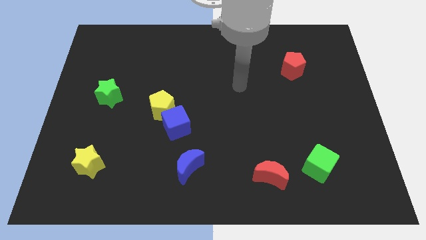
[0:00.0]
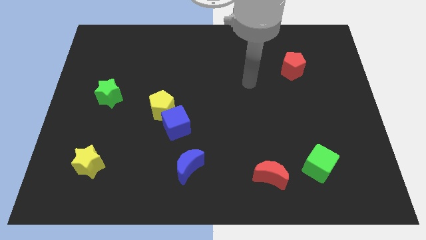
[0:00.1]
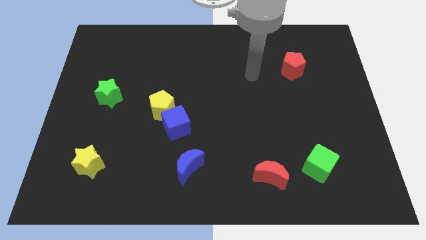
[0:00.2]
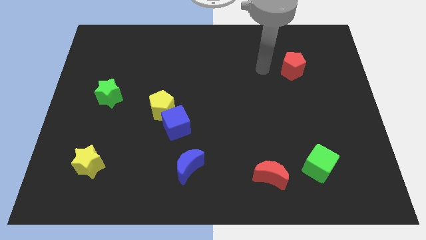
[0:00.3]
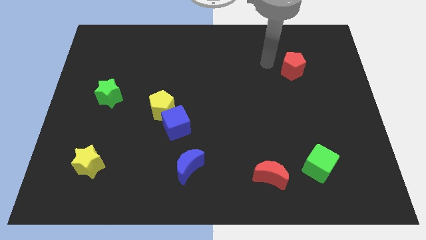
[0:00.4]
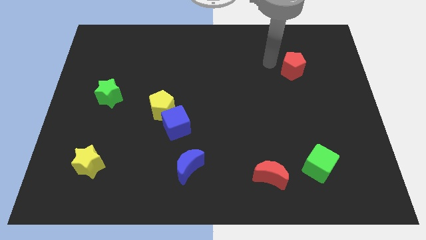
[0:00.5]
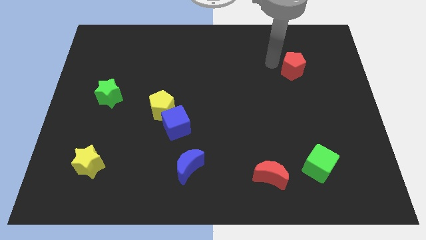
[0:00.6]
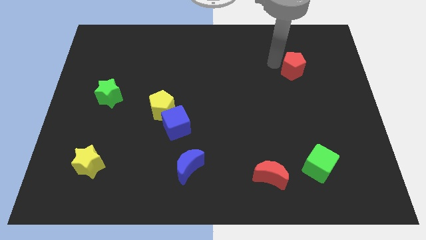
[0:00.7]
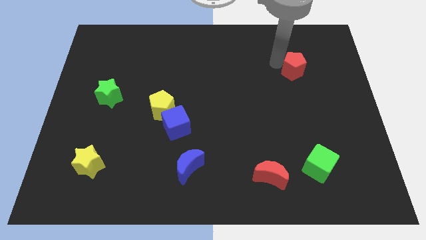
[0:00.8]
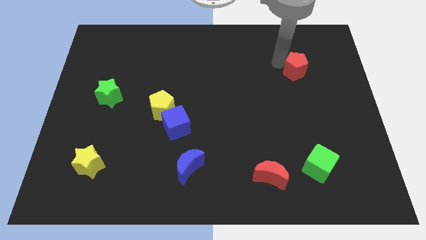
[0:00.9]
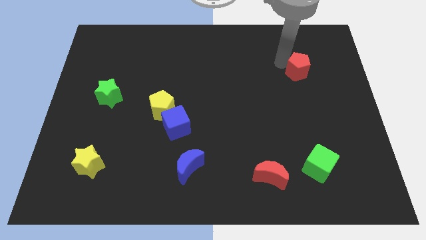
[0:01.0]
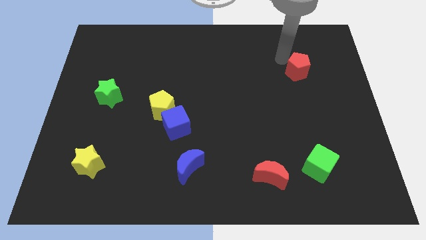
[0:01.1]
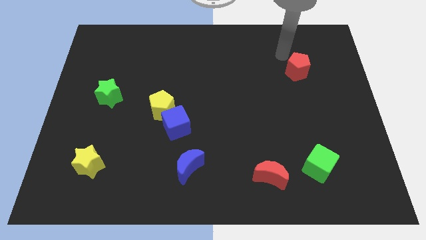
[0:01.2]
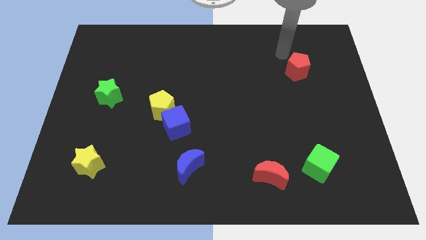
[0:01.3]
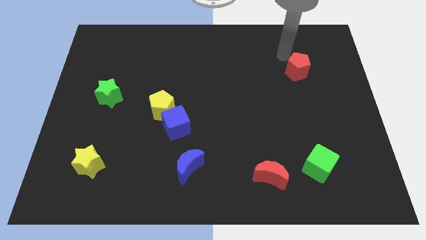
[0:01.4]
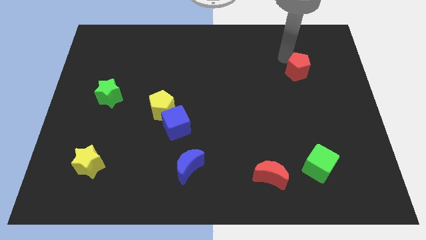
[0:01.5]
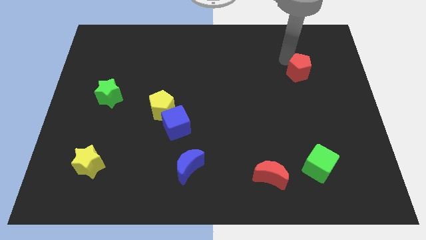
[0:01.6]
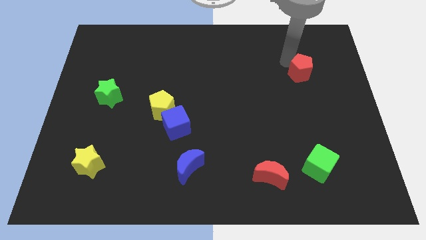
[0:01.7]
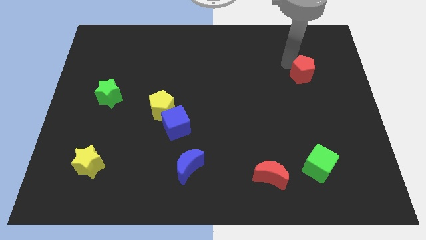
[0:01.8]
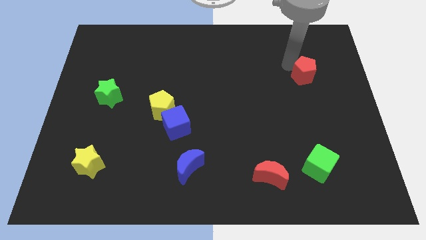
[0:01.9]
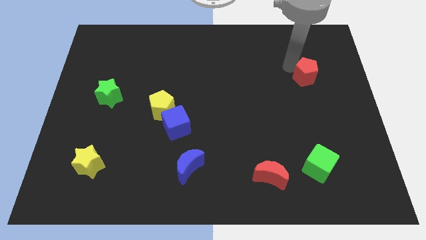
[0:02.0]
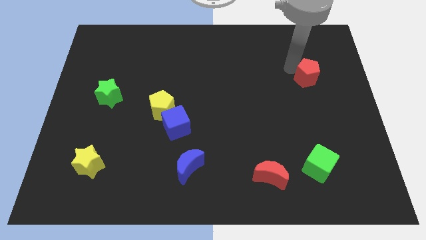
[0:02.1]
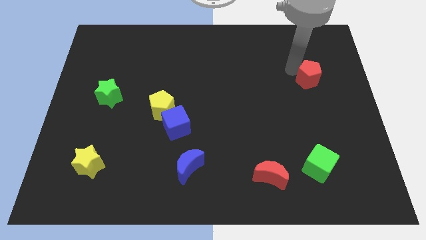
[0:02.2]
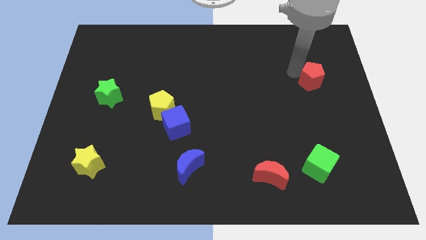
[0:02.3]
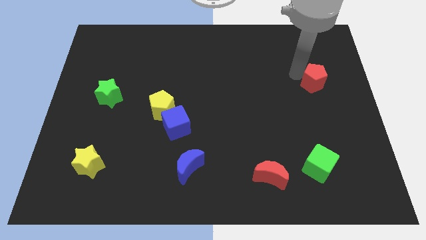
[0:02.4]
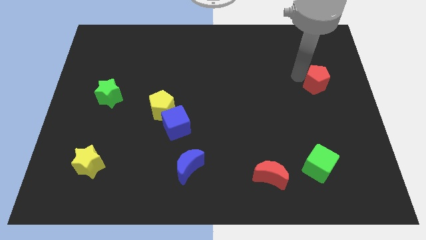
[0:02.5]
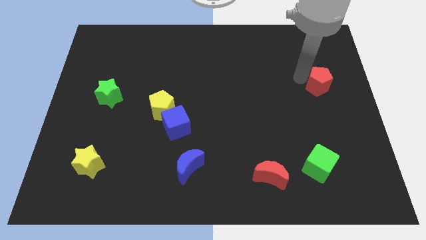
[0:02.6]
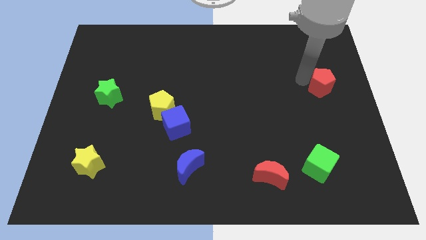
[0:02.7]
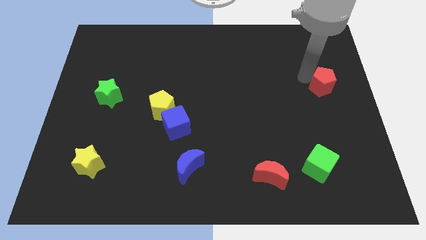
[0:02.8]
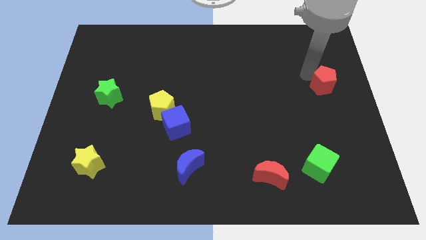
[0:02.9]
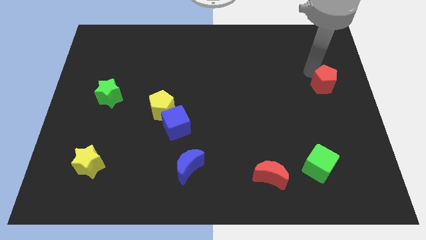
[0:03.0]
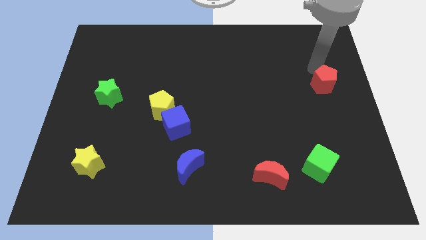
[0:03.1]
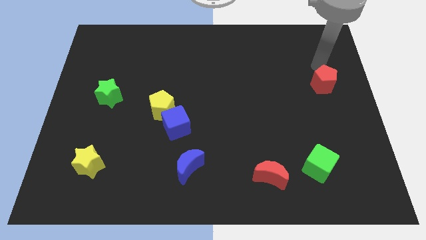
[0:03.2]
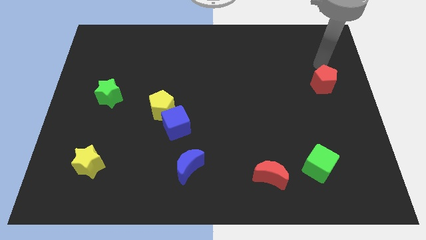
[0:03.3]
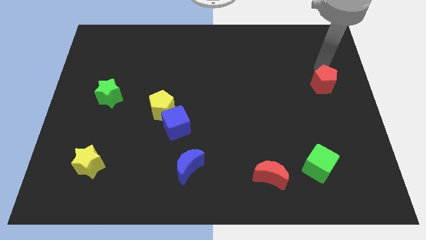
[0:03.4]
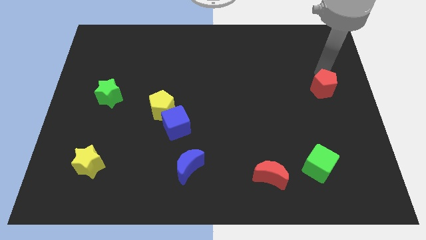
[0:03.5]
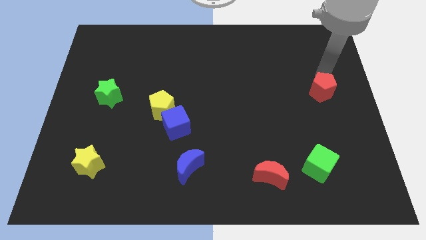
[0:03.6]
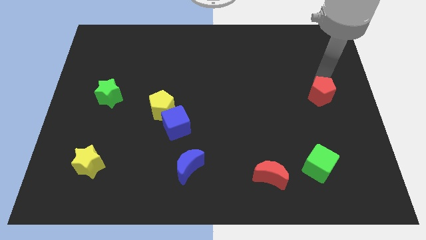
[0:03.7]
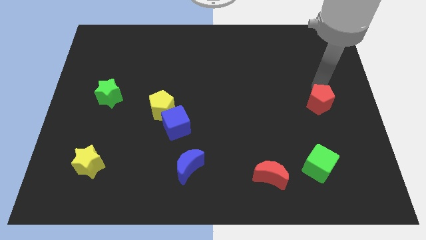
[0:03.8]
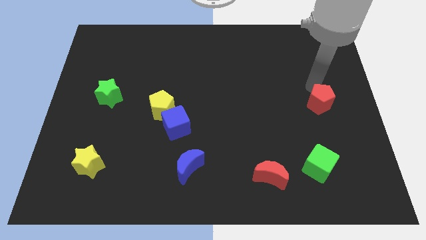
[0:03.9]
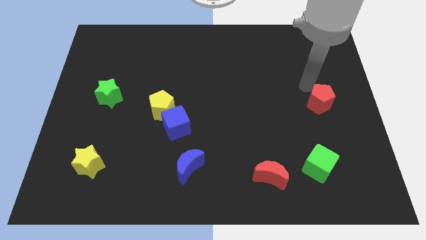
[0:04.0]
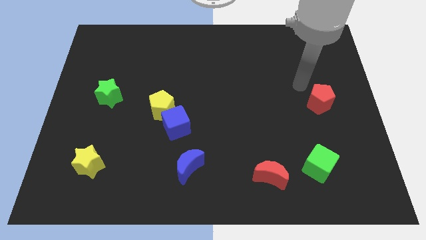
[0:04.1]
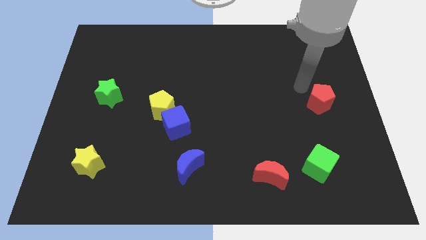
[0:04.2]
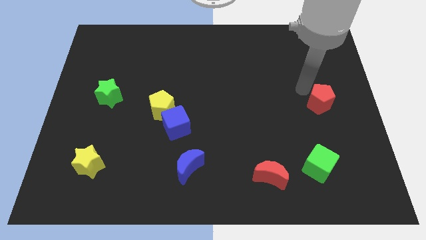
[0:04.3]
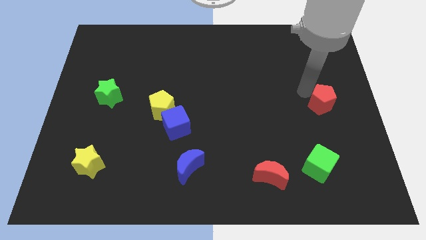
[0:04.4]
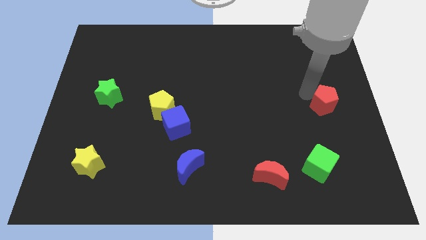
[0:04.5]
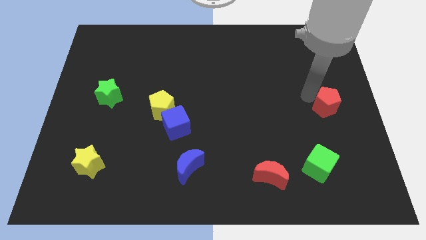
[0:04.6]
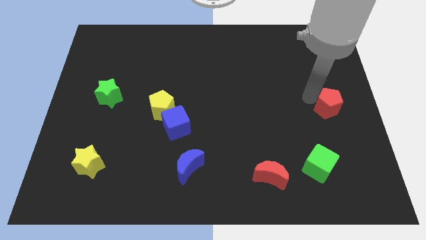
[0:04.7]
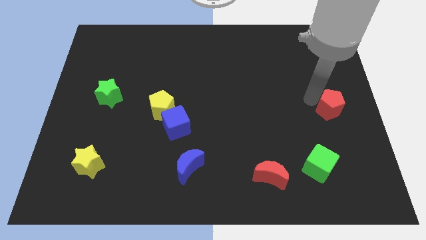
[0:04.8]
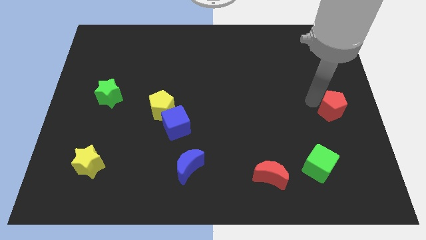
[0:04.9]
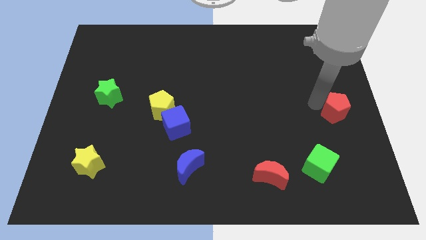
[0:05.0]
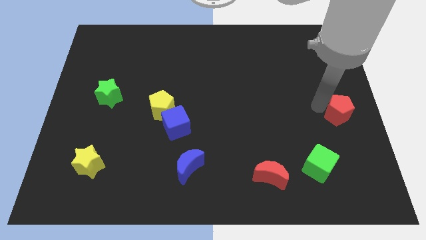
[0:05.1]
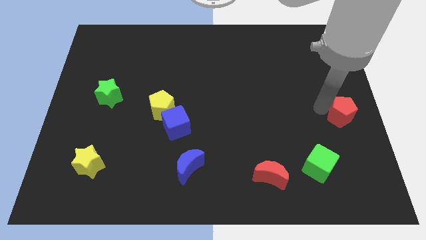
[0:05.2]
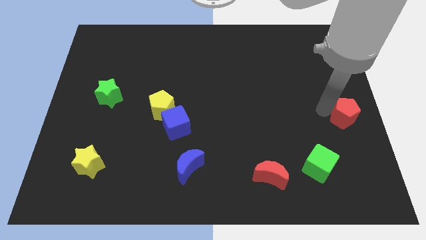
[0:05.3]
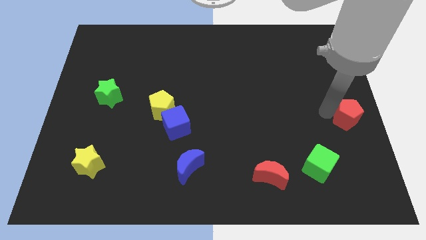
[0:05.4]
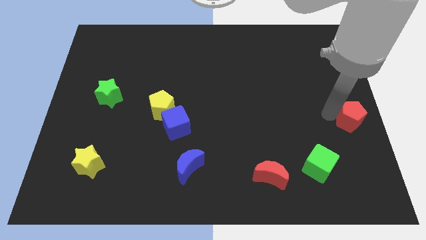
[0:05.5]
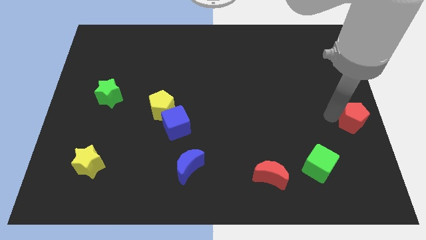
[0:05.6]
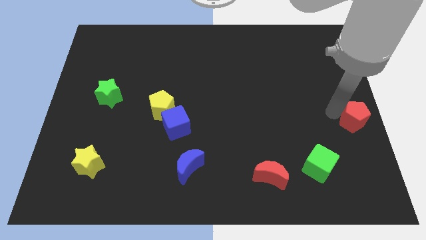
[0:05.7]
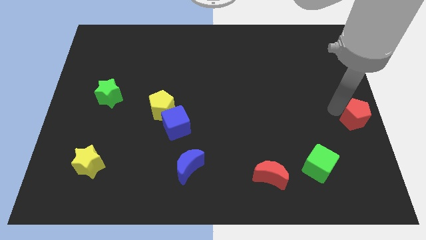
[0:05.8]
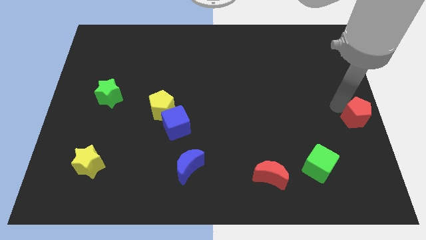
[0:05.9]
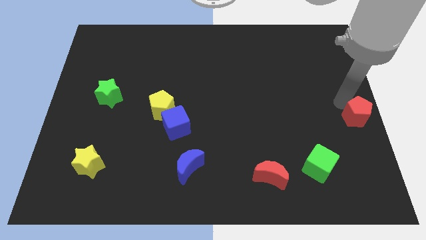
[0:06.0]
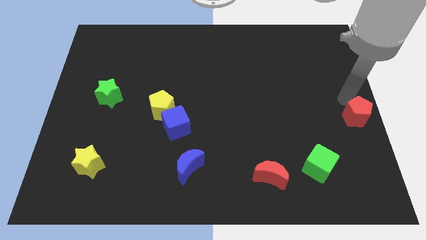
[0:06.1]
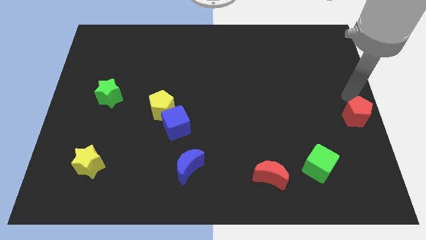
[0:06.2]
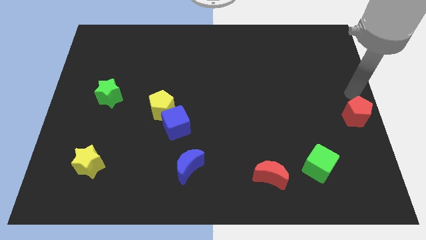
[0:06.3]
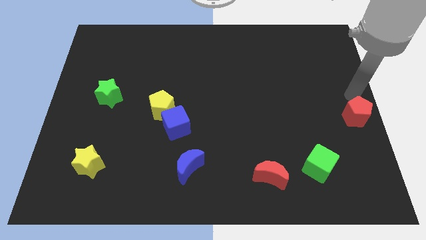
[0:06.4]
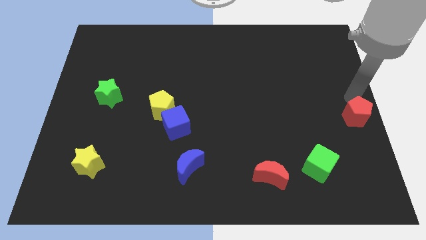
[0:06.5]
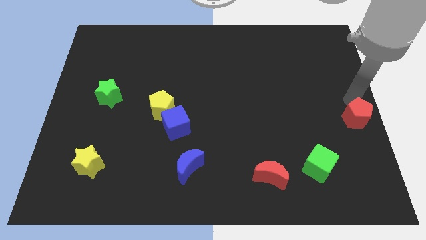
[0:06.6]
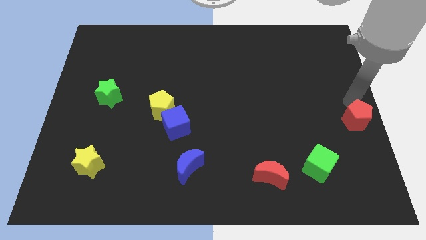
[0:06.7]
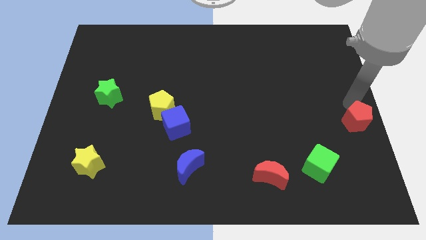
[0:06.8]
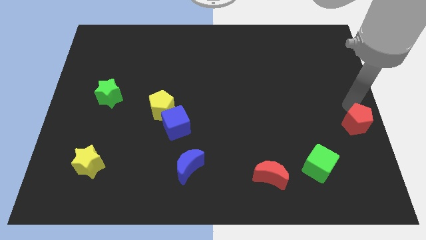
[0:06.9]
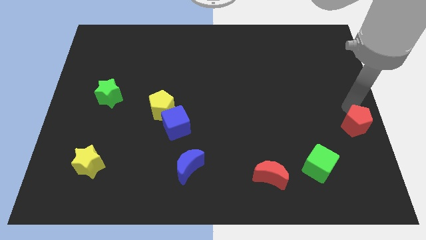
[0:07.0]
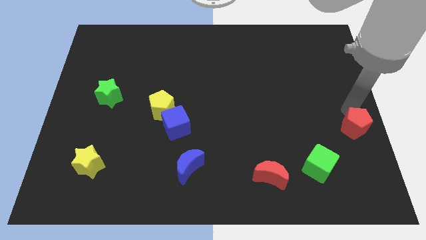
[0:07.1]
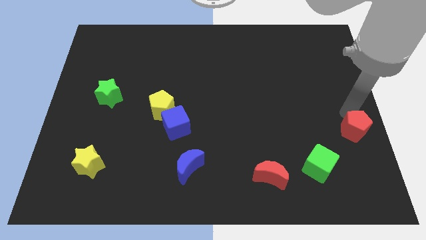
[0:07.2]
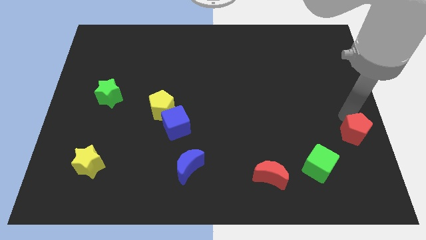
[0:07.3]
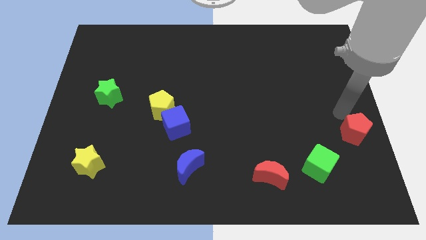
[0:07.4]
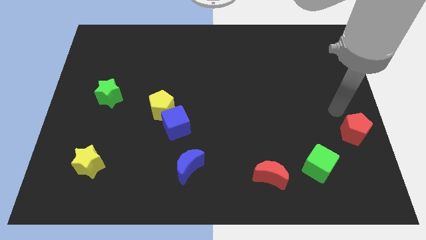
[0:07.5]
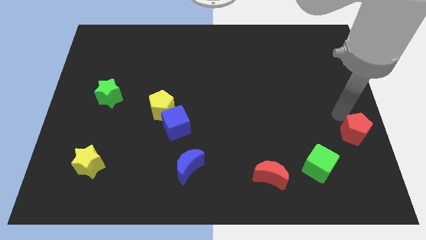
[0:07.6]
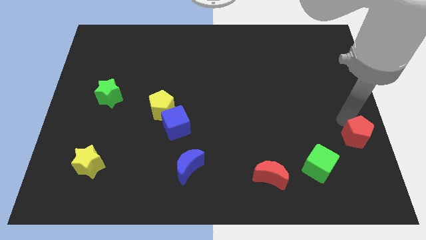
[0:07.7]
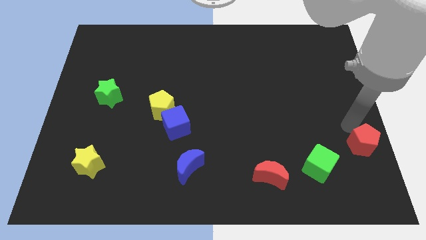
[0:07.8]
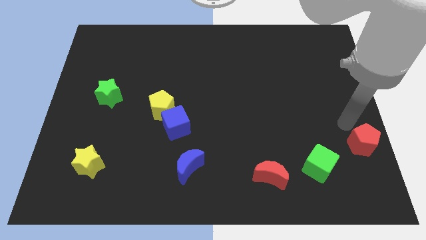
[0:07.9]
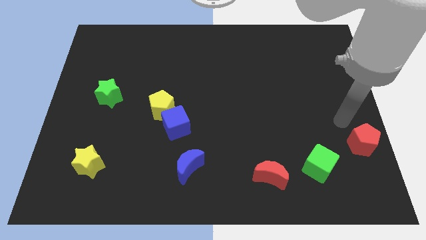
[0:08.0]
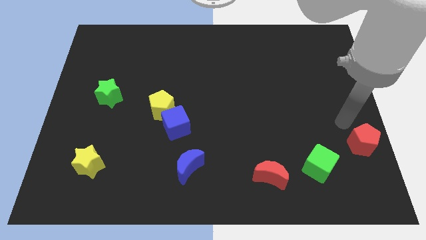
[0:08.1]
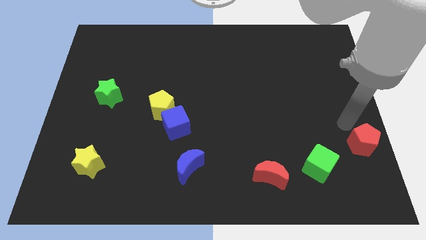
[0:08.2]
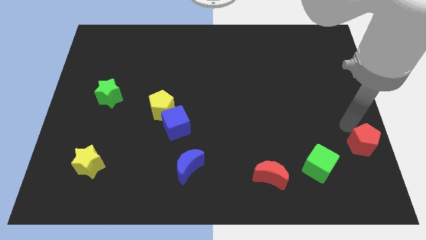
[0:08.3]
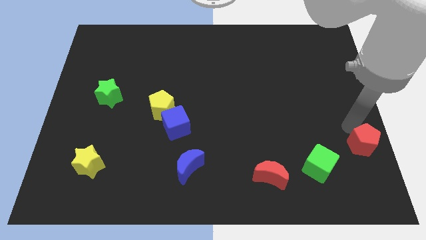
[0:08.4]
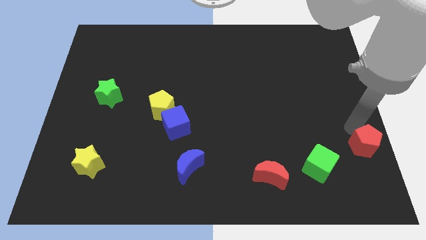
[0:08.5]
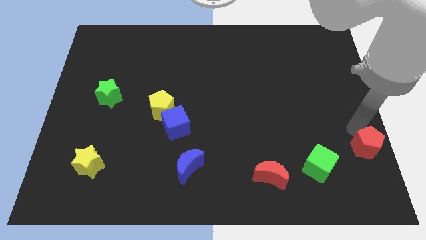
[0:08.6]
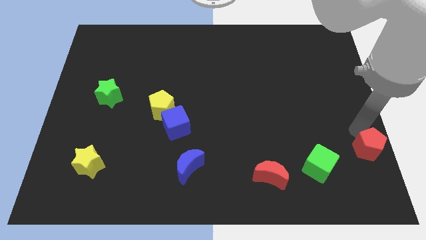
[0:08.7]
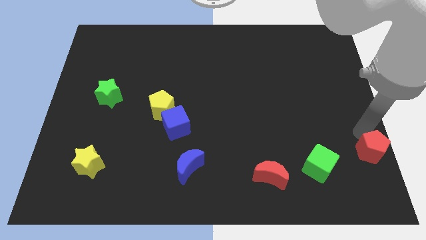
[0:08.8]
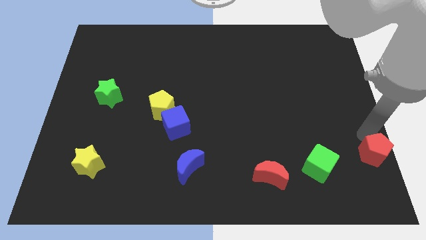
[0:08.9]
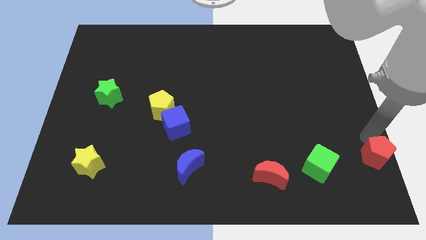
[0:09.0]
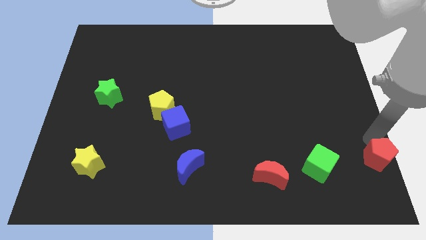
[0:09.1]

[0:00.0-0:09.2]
put the red pentagon to the bottom right corner
